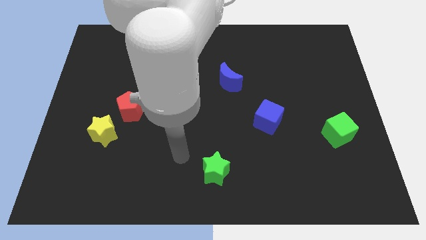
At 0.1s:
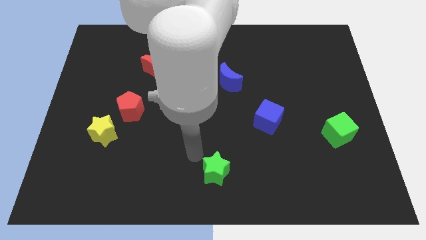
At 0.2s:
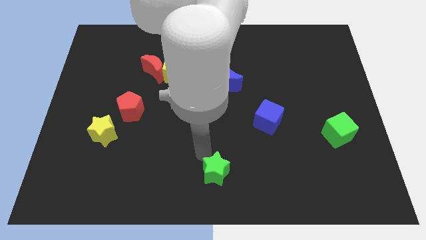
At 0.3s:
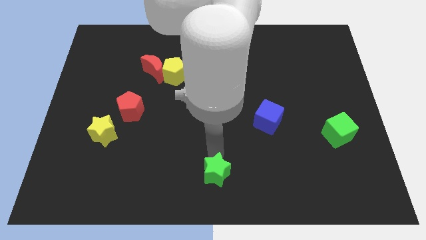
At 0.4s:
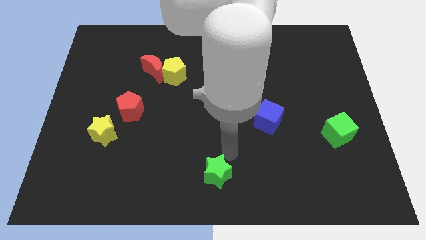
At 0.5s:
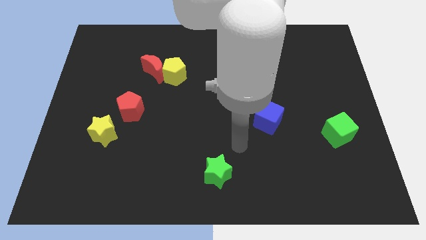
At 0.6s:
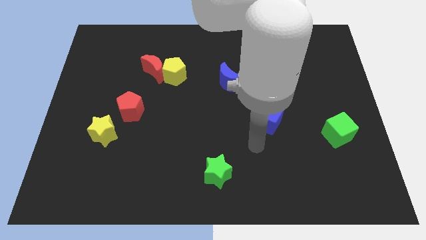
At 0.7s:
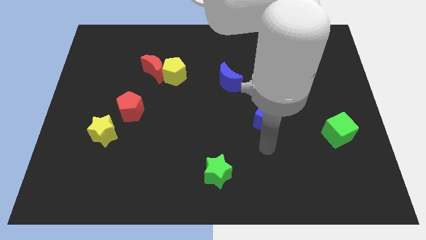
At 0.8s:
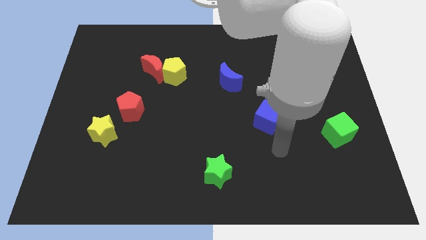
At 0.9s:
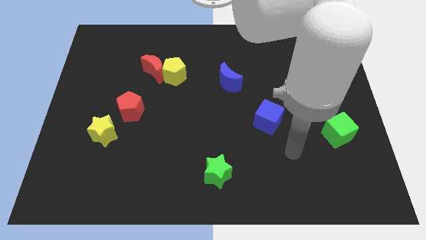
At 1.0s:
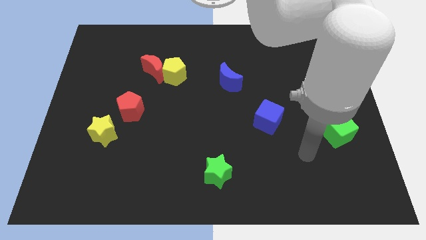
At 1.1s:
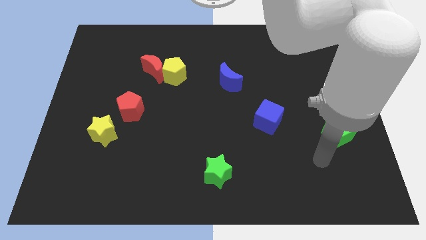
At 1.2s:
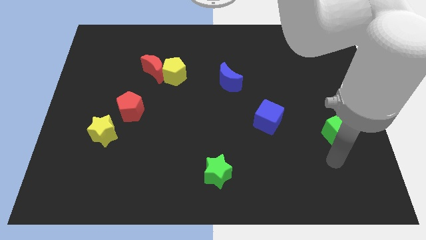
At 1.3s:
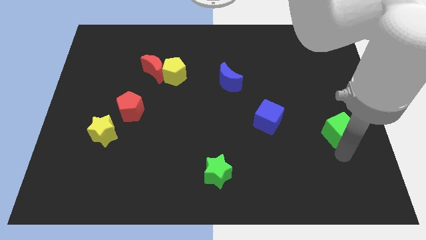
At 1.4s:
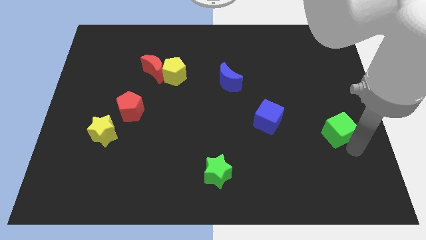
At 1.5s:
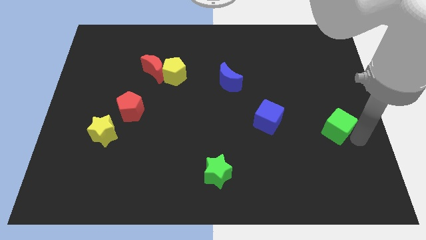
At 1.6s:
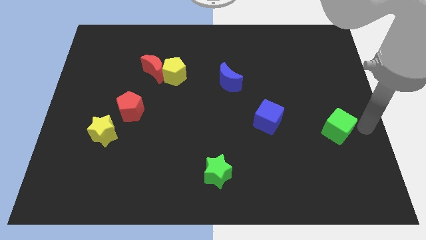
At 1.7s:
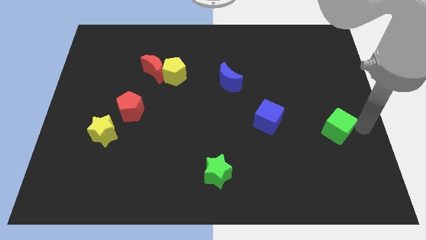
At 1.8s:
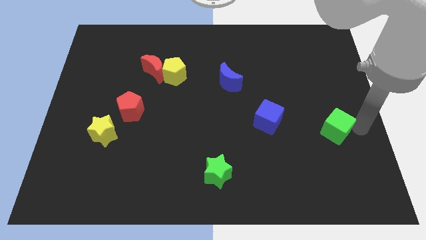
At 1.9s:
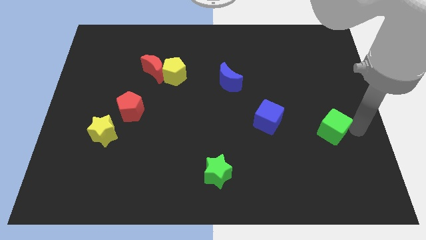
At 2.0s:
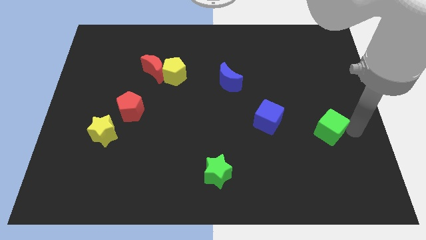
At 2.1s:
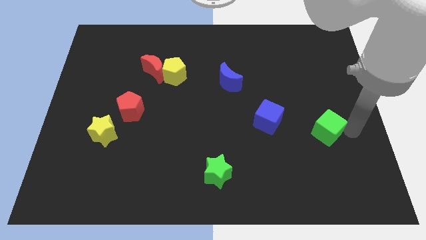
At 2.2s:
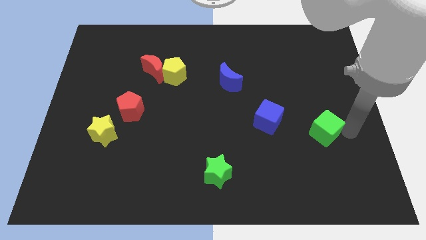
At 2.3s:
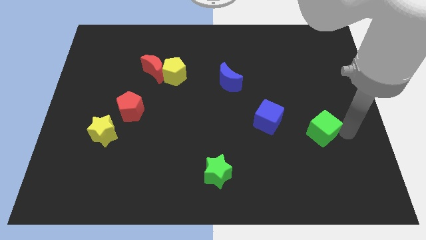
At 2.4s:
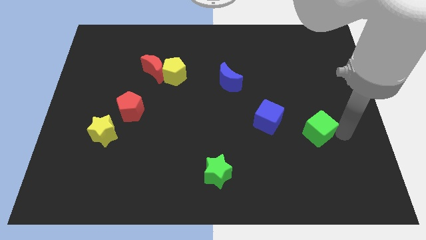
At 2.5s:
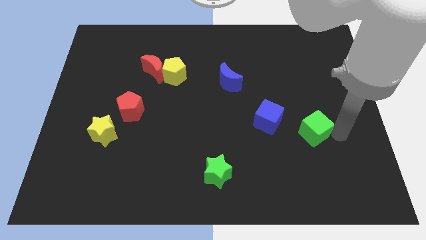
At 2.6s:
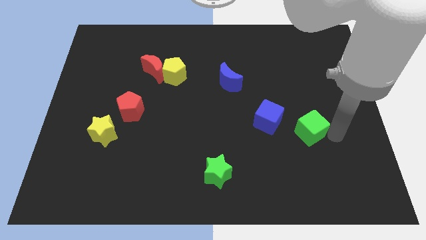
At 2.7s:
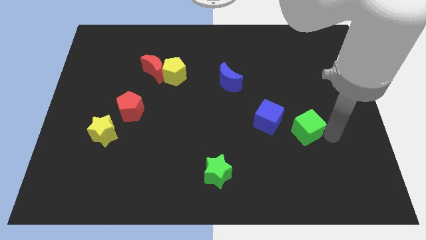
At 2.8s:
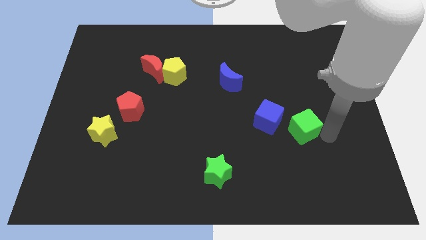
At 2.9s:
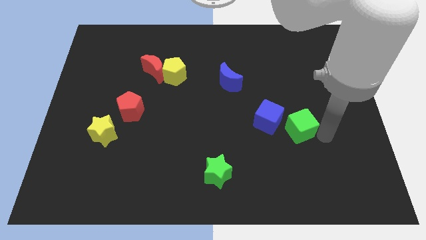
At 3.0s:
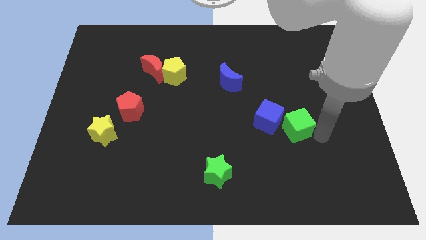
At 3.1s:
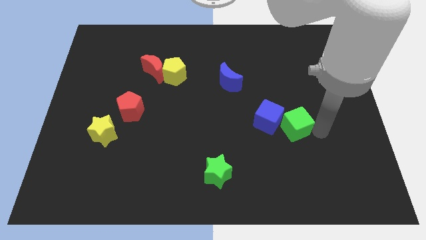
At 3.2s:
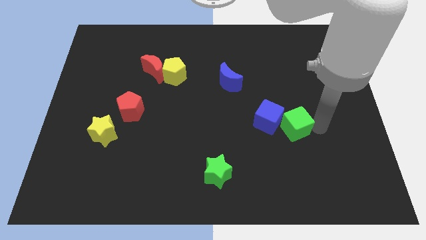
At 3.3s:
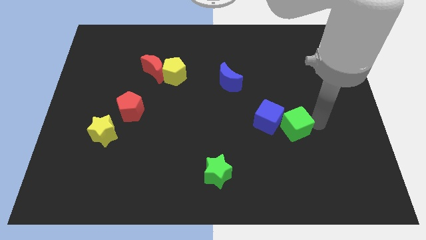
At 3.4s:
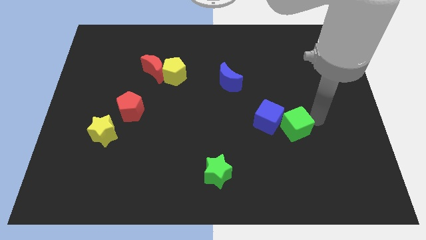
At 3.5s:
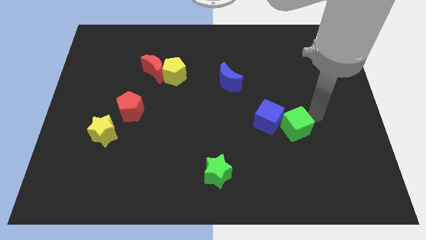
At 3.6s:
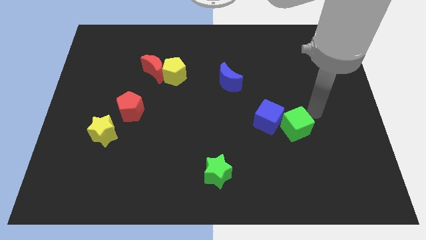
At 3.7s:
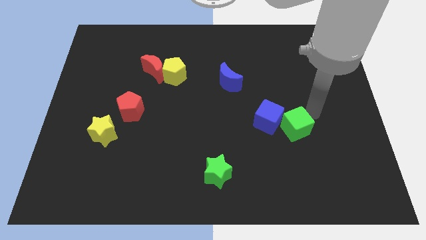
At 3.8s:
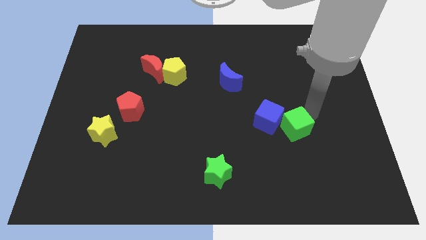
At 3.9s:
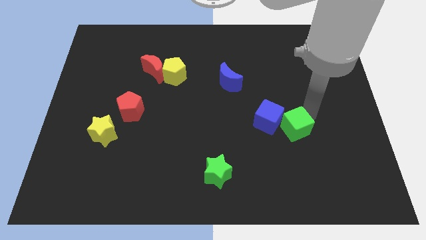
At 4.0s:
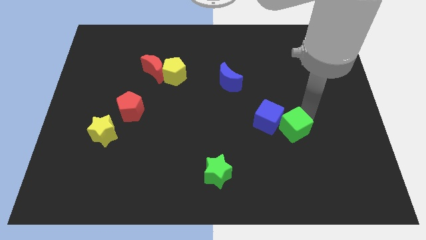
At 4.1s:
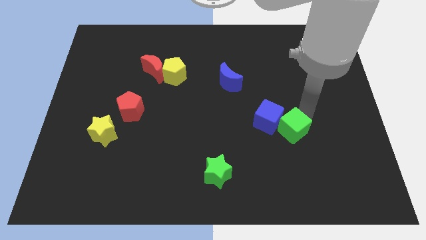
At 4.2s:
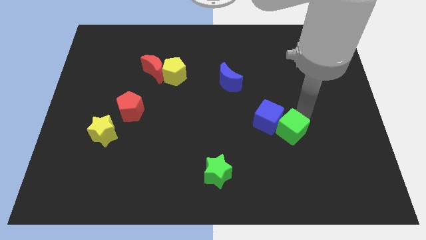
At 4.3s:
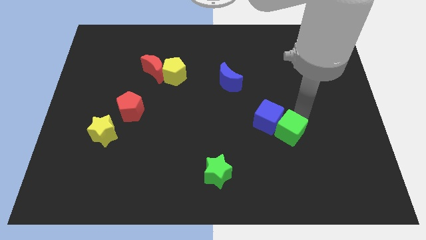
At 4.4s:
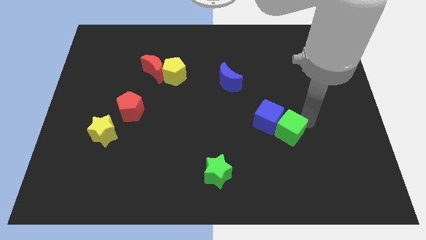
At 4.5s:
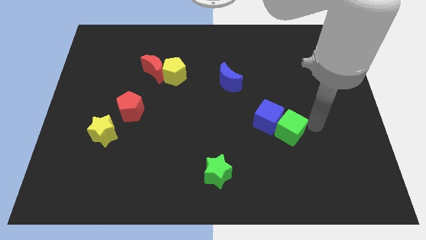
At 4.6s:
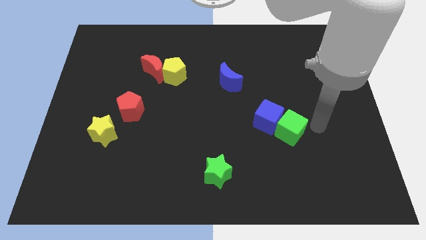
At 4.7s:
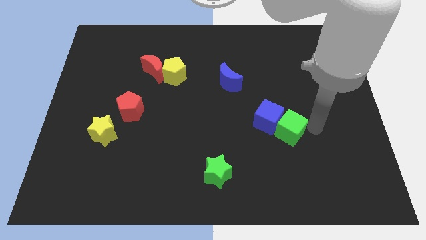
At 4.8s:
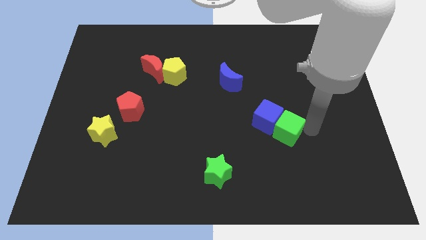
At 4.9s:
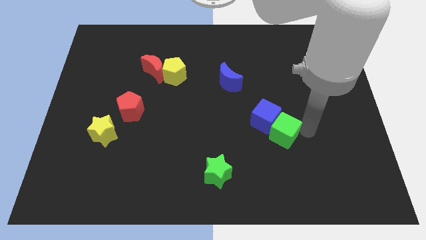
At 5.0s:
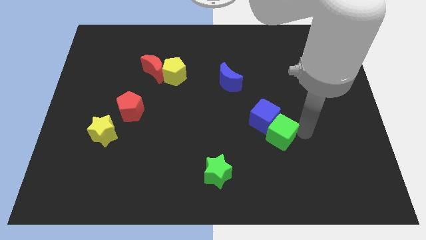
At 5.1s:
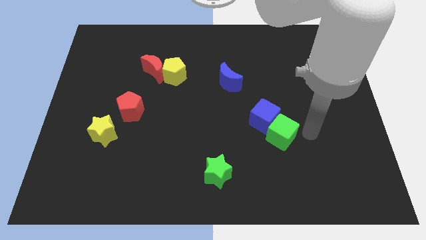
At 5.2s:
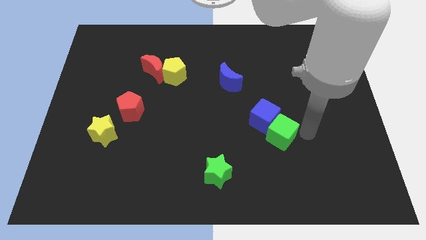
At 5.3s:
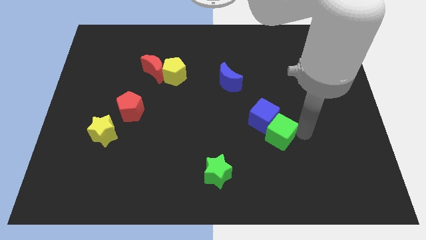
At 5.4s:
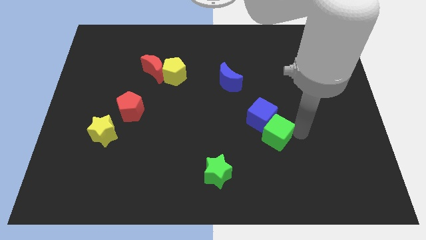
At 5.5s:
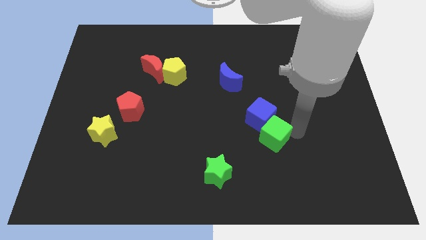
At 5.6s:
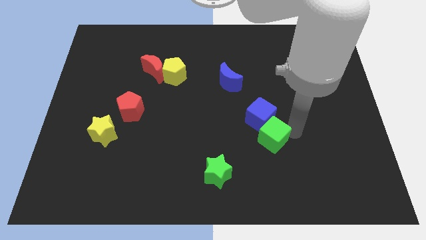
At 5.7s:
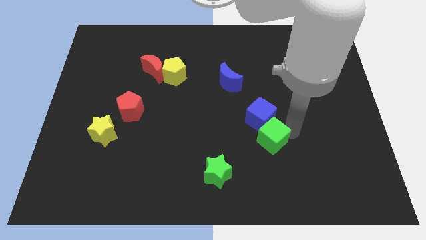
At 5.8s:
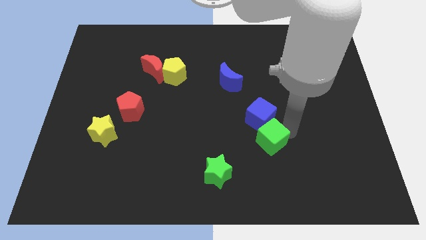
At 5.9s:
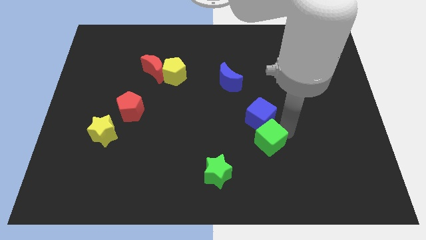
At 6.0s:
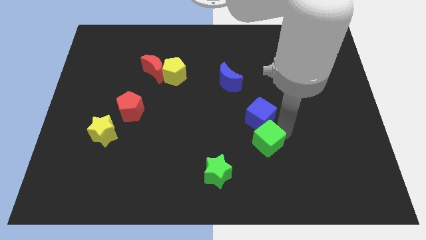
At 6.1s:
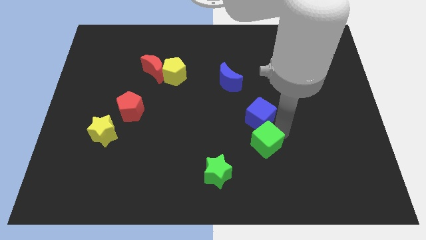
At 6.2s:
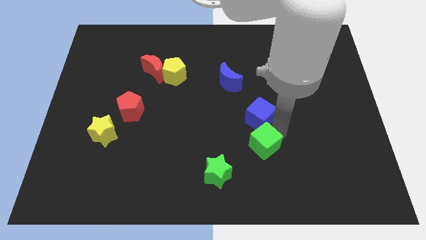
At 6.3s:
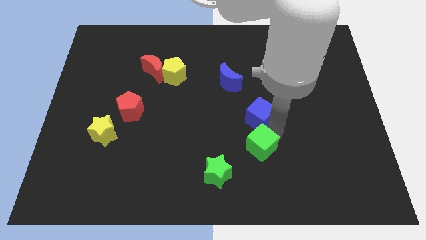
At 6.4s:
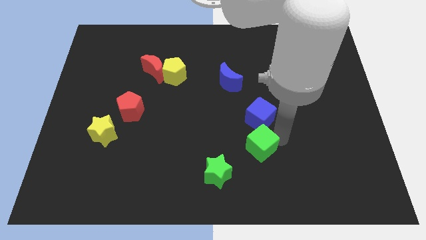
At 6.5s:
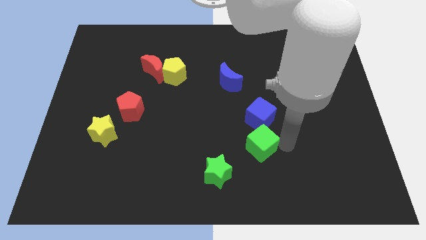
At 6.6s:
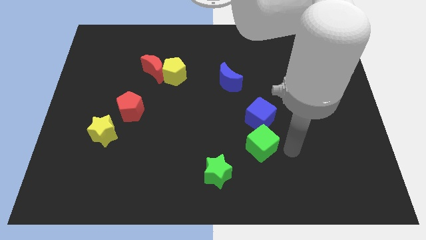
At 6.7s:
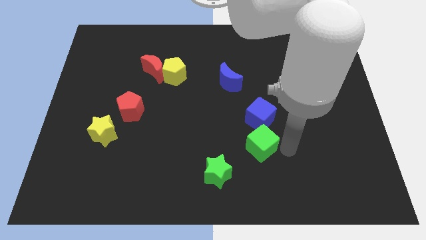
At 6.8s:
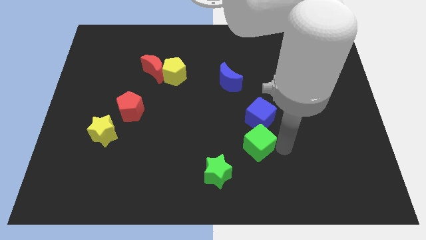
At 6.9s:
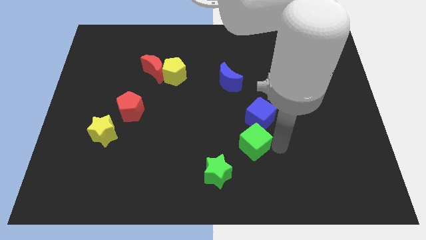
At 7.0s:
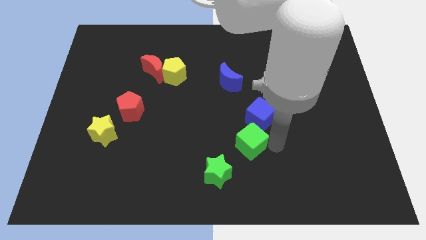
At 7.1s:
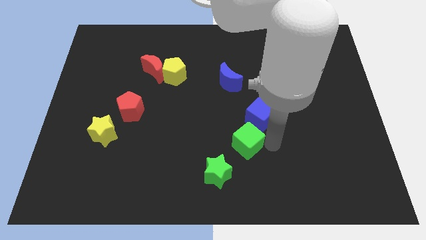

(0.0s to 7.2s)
move the green cube left

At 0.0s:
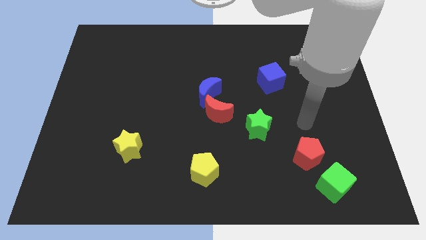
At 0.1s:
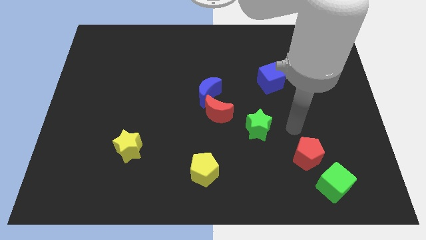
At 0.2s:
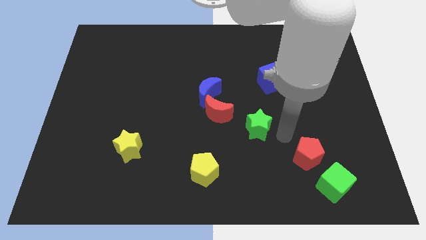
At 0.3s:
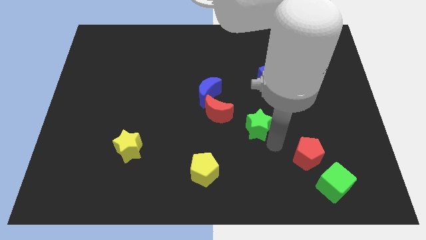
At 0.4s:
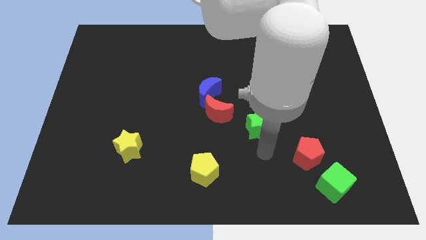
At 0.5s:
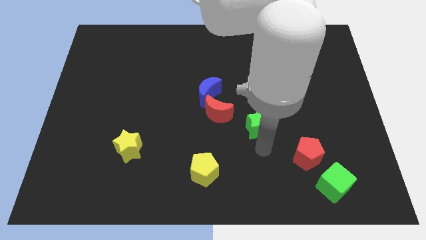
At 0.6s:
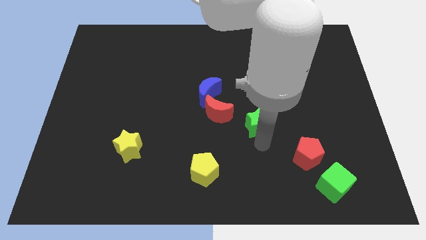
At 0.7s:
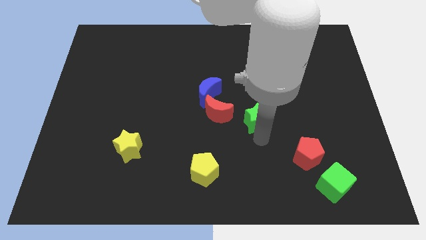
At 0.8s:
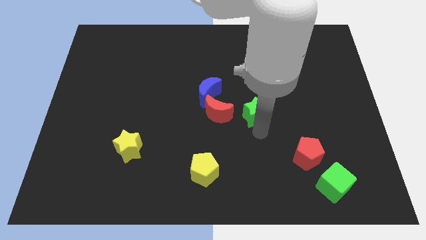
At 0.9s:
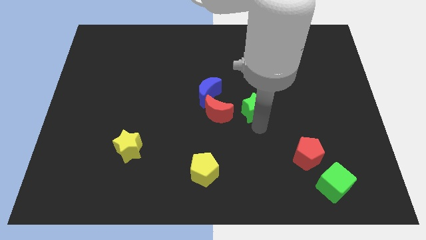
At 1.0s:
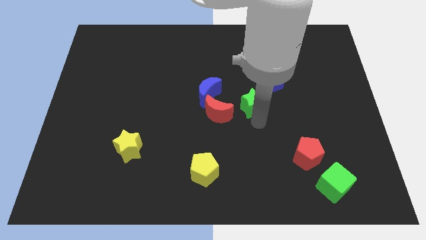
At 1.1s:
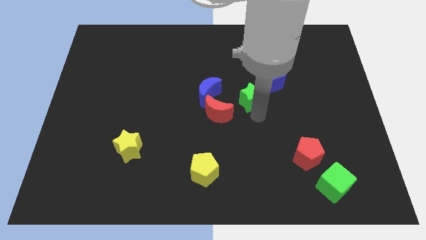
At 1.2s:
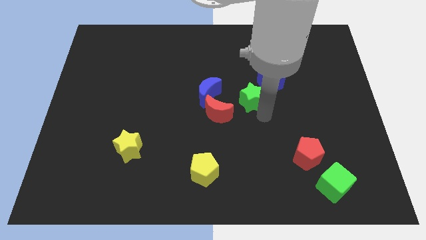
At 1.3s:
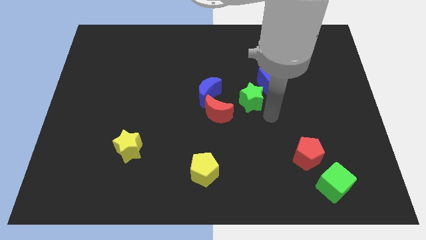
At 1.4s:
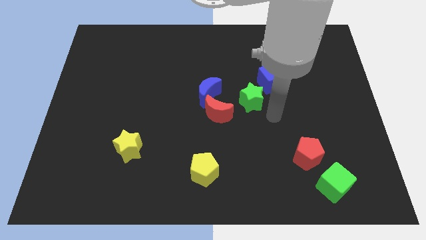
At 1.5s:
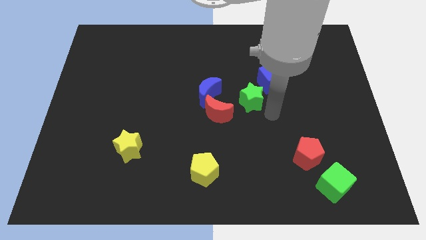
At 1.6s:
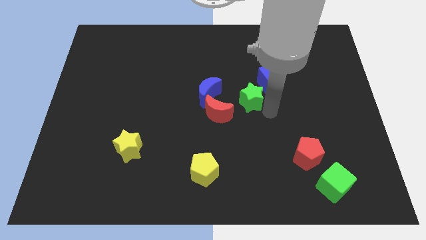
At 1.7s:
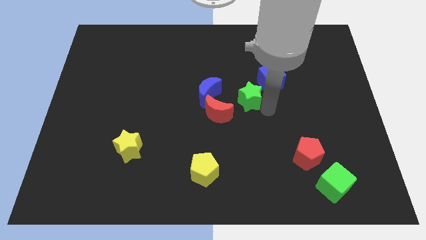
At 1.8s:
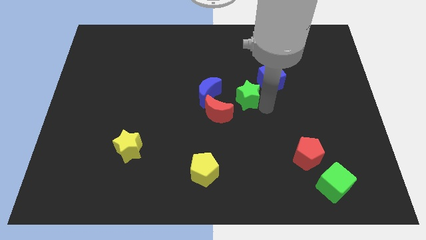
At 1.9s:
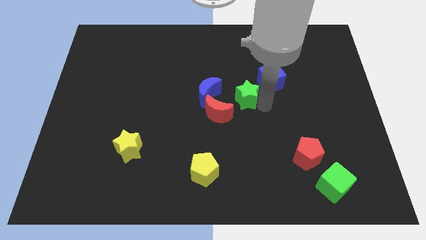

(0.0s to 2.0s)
push the green star diagonally up and left a bit
